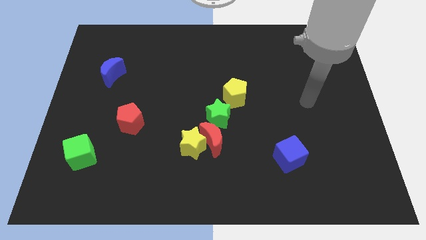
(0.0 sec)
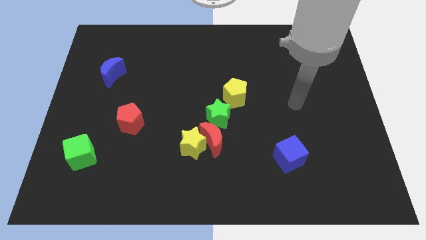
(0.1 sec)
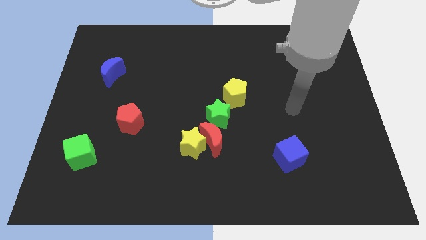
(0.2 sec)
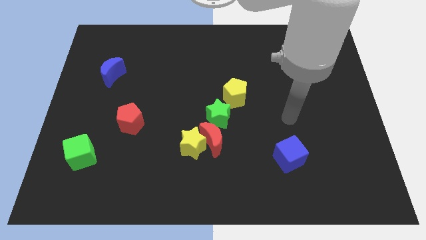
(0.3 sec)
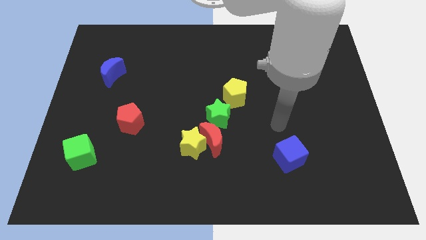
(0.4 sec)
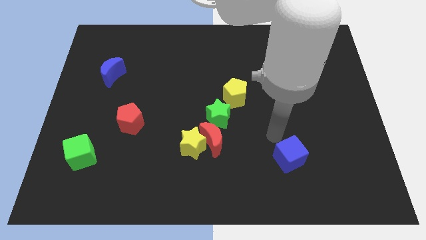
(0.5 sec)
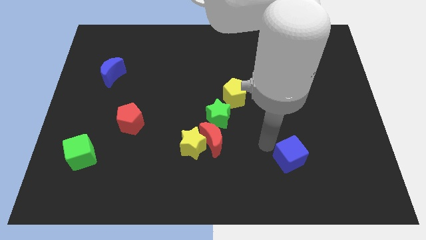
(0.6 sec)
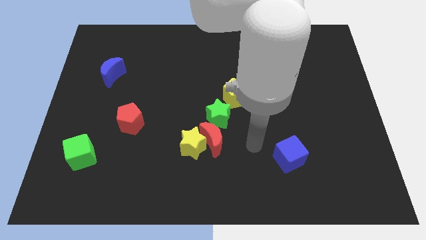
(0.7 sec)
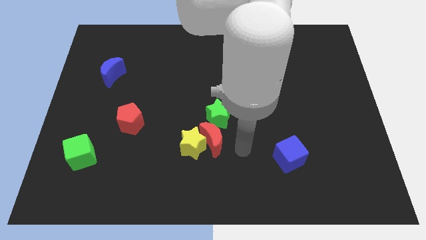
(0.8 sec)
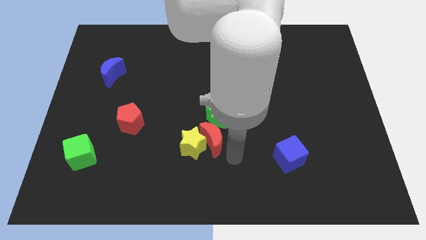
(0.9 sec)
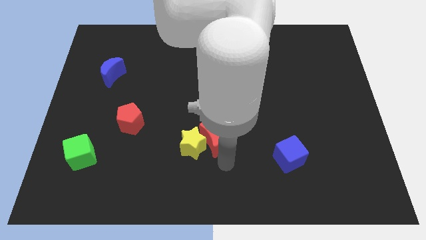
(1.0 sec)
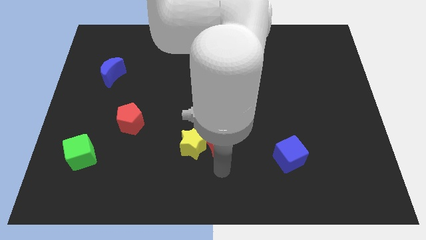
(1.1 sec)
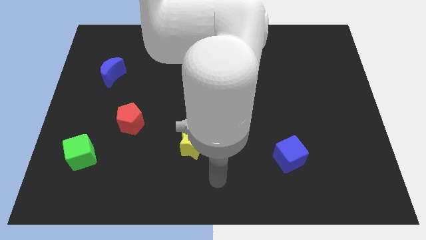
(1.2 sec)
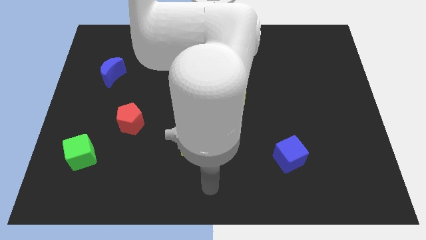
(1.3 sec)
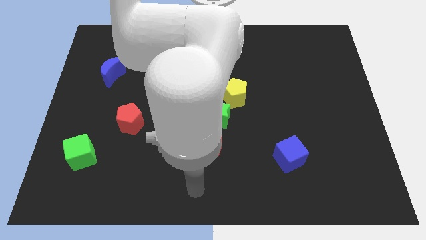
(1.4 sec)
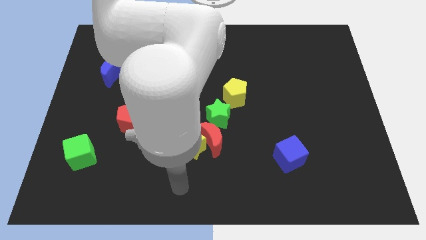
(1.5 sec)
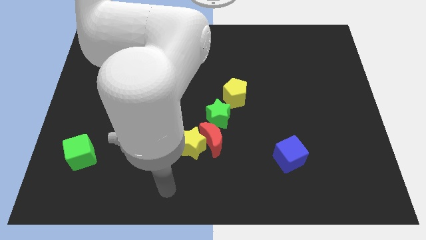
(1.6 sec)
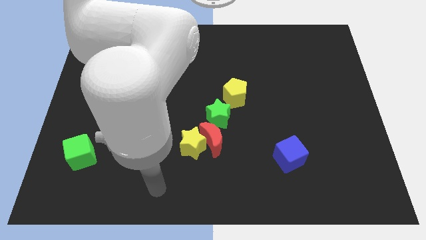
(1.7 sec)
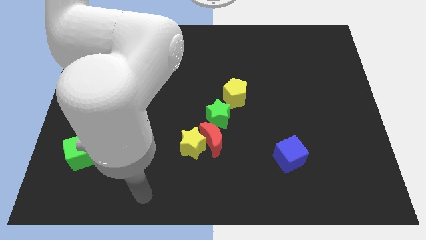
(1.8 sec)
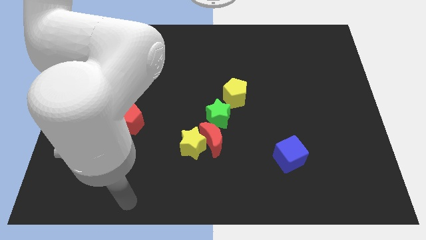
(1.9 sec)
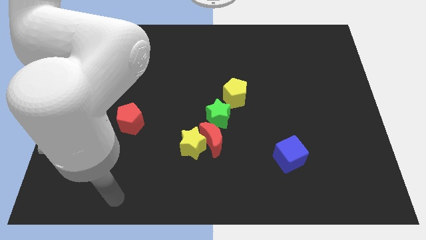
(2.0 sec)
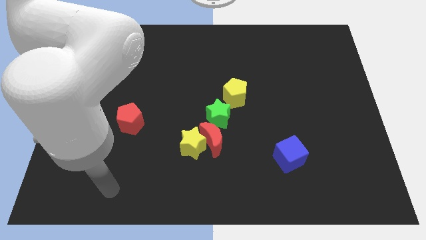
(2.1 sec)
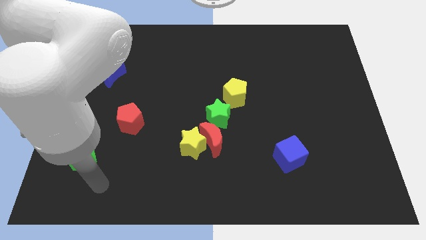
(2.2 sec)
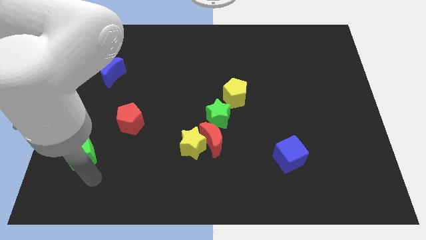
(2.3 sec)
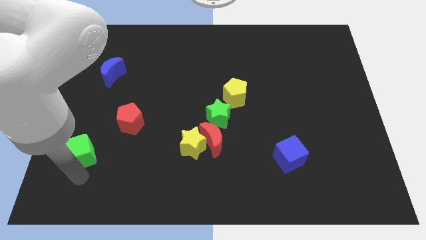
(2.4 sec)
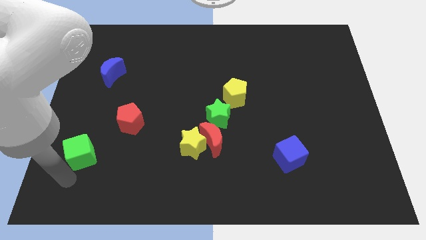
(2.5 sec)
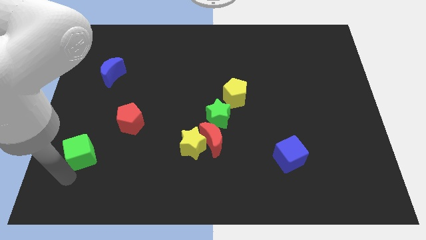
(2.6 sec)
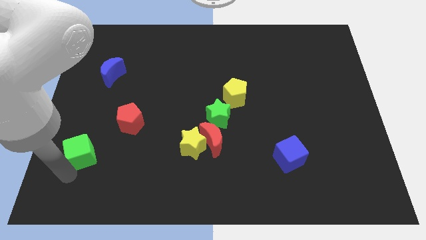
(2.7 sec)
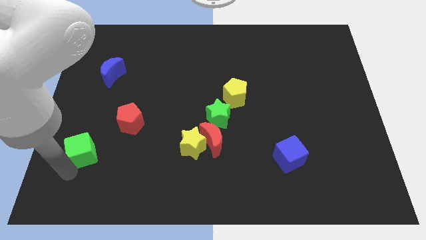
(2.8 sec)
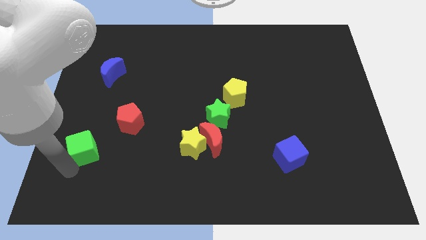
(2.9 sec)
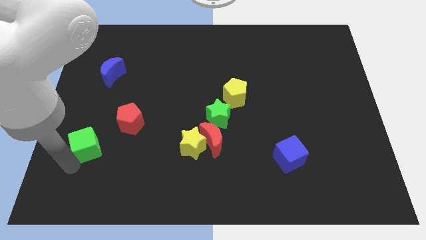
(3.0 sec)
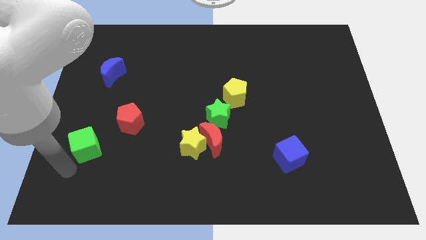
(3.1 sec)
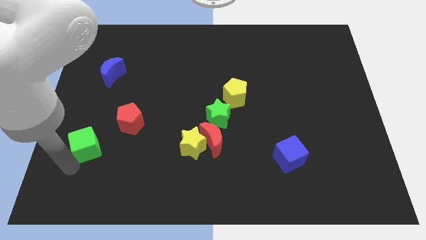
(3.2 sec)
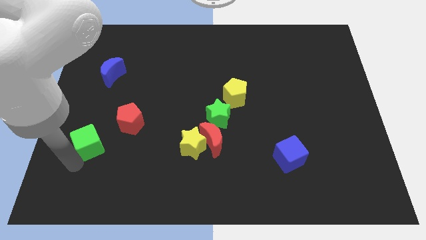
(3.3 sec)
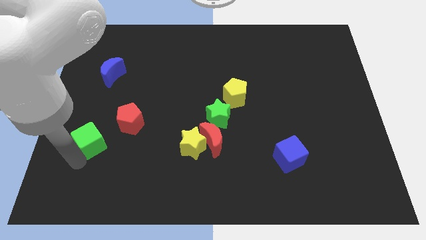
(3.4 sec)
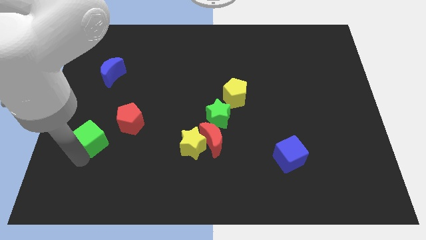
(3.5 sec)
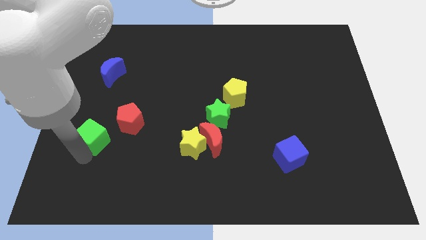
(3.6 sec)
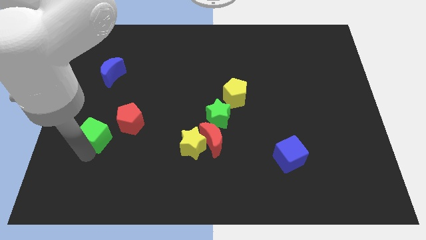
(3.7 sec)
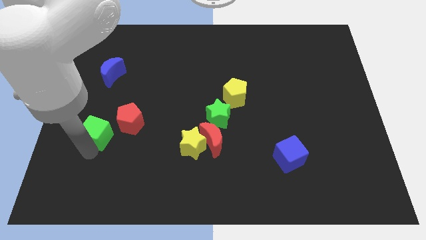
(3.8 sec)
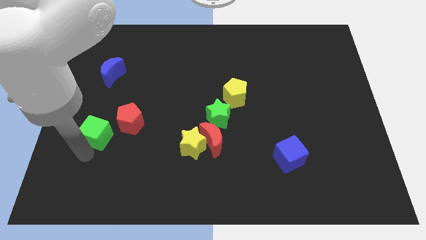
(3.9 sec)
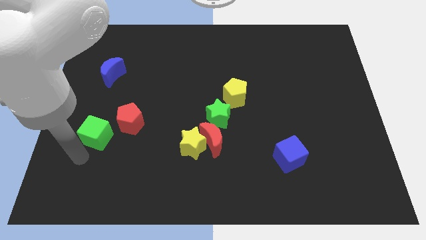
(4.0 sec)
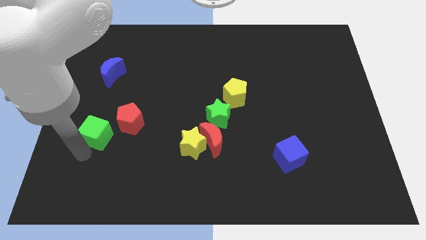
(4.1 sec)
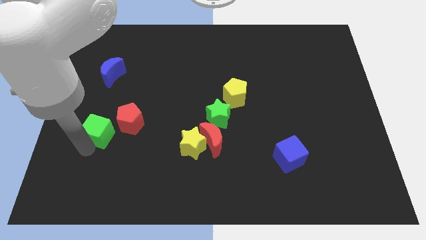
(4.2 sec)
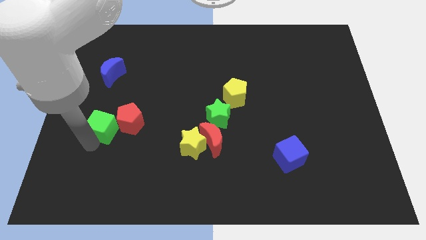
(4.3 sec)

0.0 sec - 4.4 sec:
push the green cube up and to the right diagonally somewhat

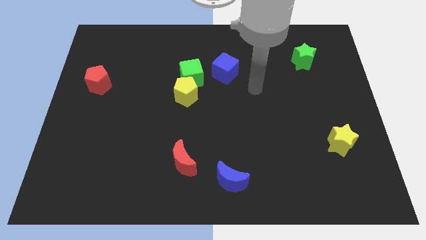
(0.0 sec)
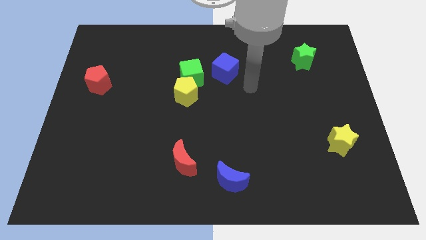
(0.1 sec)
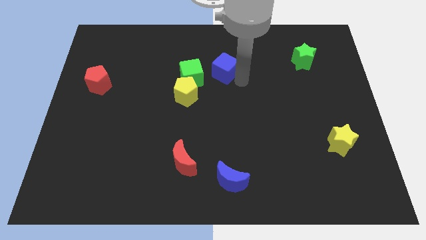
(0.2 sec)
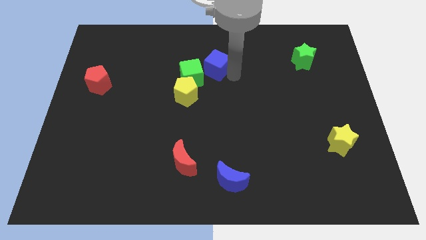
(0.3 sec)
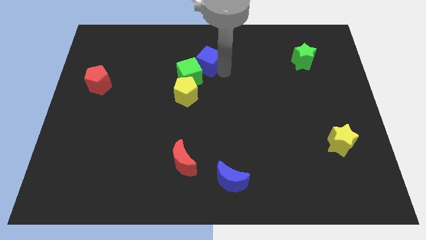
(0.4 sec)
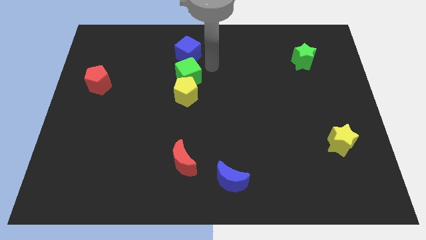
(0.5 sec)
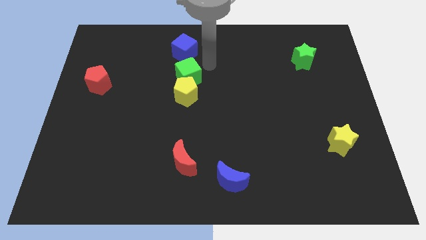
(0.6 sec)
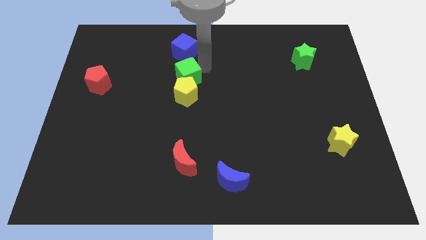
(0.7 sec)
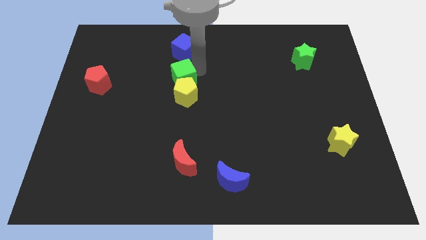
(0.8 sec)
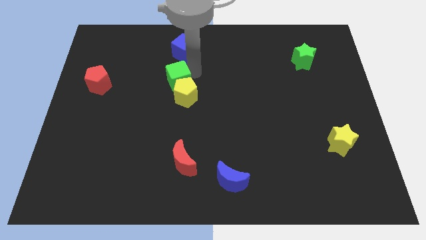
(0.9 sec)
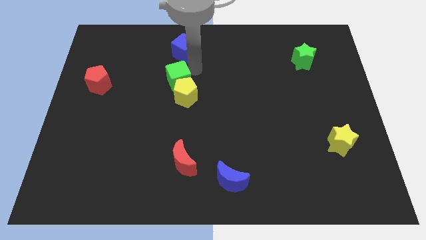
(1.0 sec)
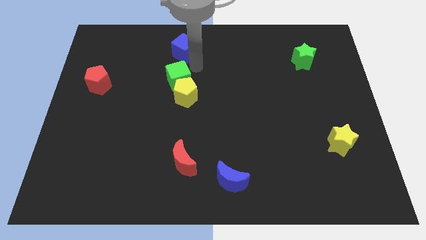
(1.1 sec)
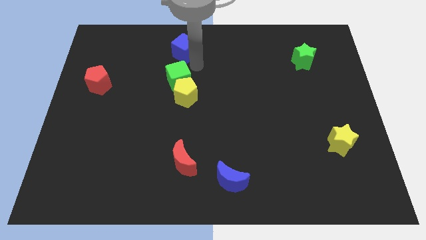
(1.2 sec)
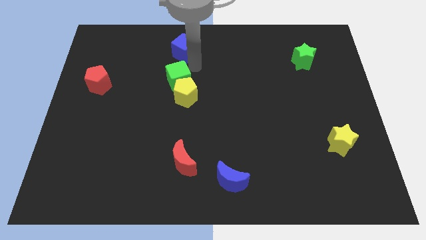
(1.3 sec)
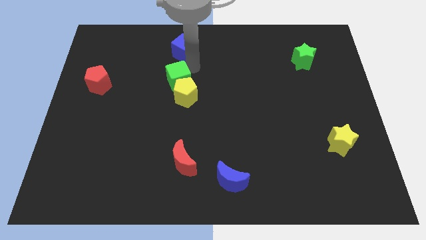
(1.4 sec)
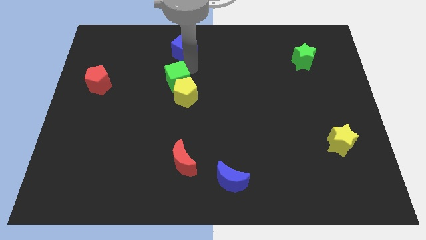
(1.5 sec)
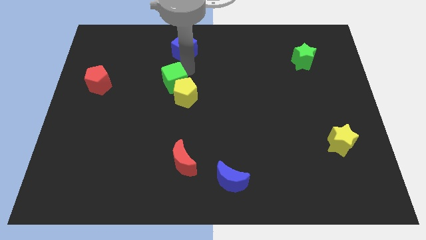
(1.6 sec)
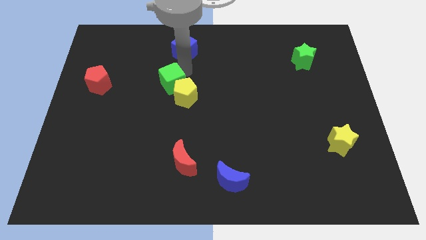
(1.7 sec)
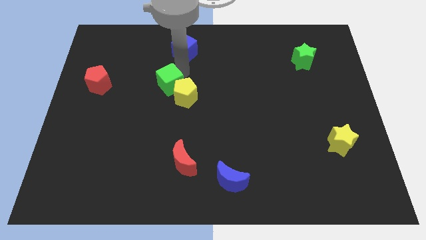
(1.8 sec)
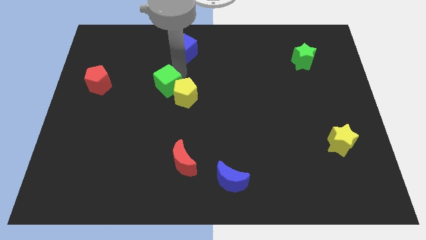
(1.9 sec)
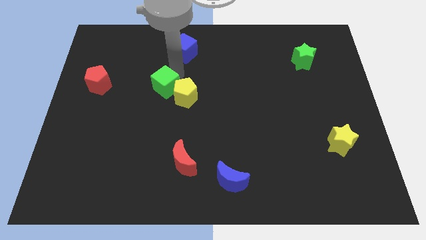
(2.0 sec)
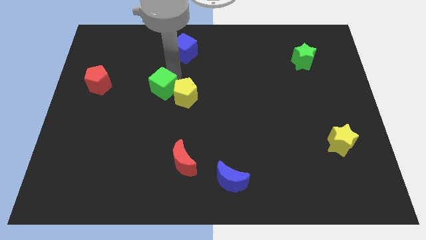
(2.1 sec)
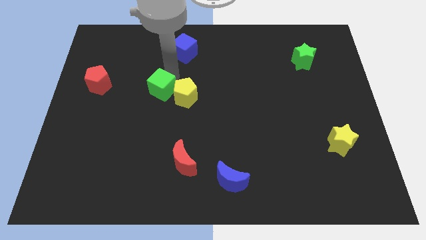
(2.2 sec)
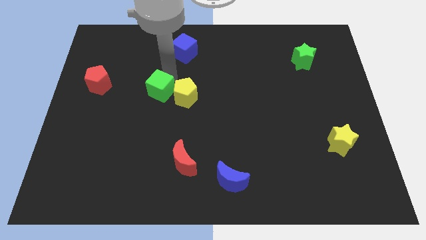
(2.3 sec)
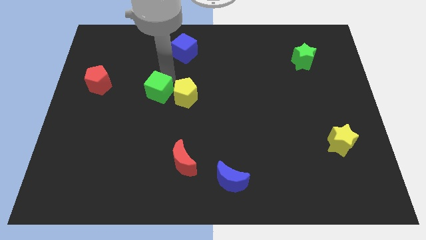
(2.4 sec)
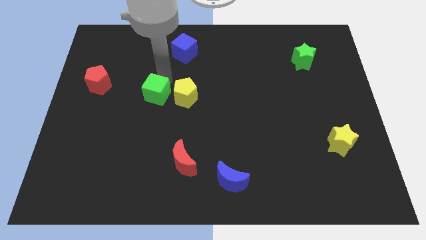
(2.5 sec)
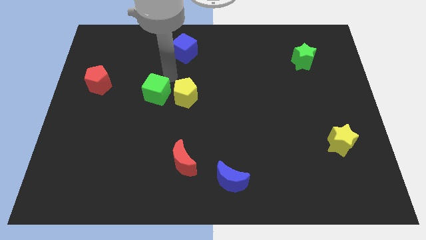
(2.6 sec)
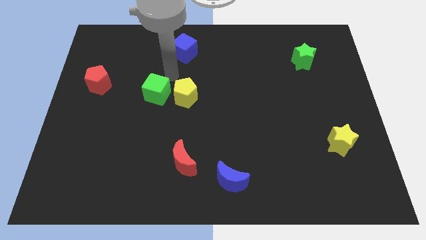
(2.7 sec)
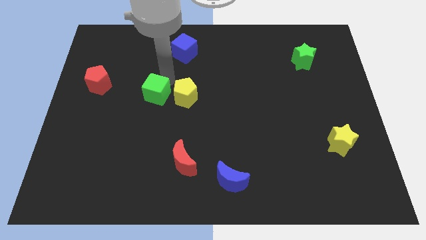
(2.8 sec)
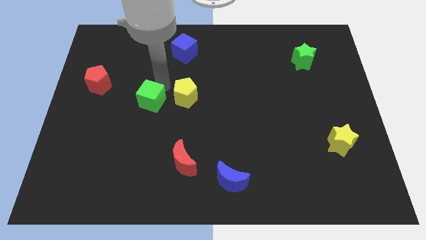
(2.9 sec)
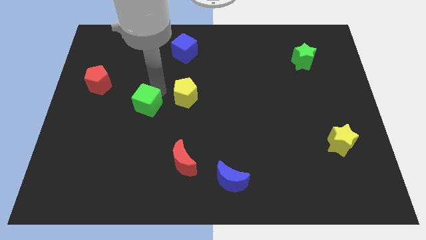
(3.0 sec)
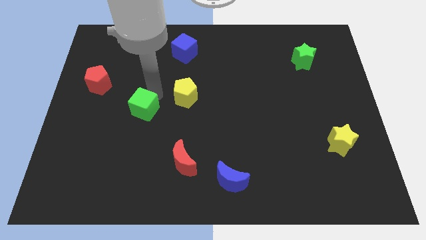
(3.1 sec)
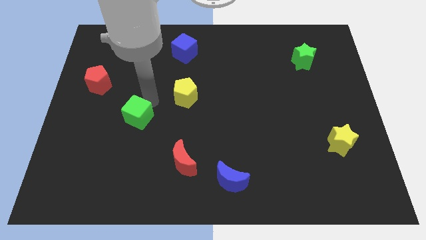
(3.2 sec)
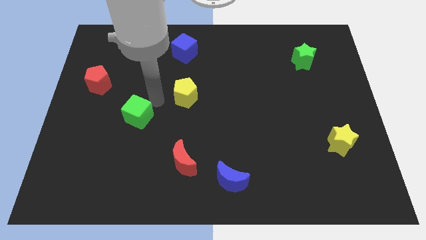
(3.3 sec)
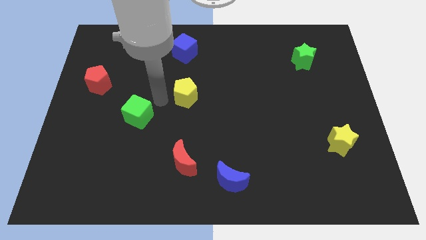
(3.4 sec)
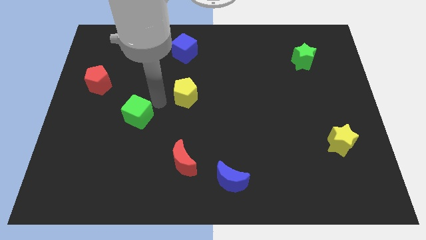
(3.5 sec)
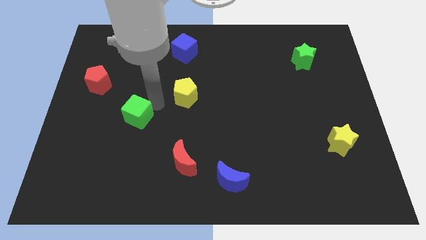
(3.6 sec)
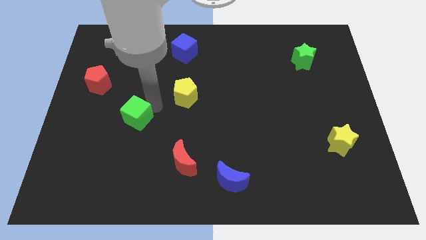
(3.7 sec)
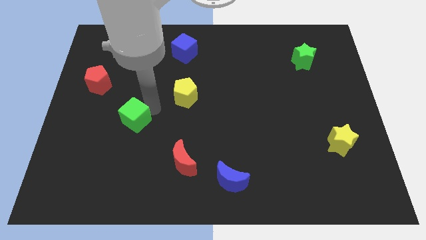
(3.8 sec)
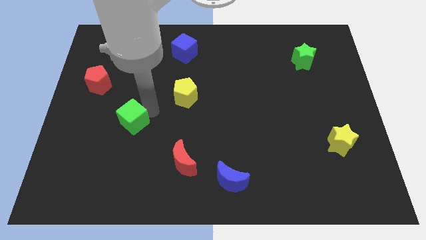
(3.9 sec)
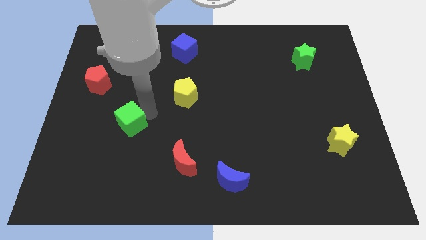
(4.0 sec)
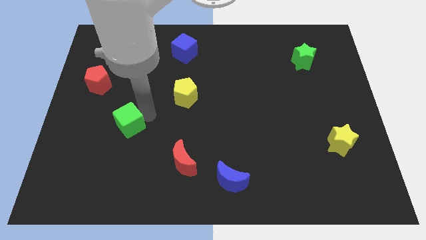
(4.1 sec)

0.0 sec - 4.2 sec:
move the green cube diagonally downwards and to the left
